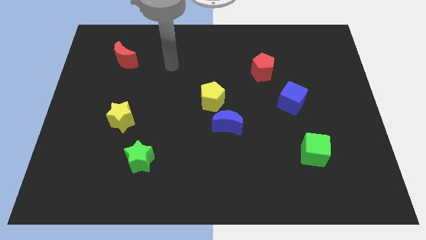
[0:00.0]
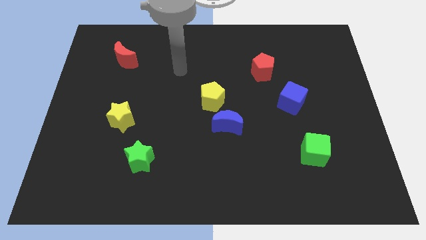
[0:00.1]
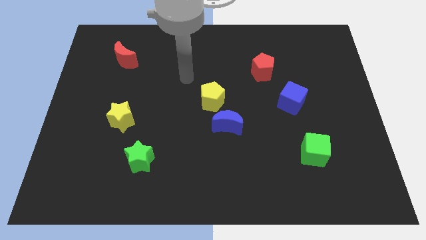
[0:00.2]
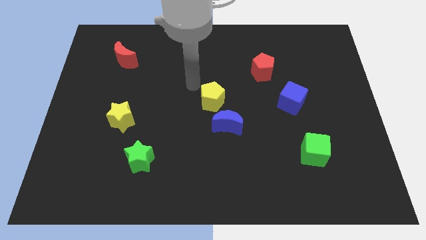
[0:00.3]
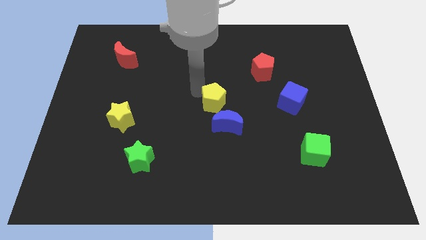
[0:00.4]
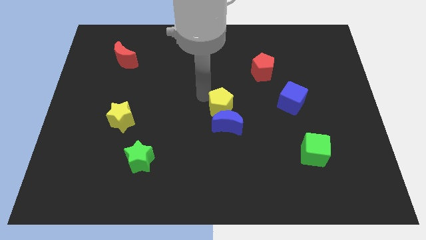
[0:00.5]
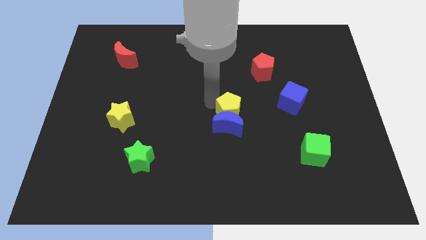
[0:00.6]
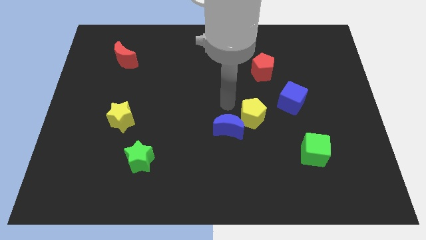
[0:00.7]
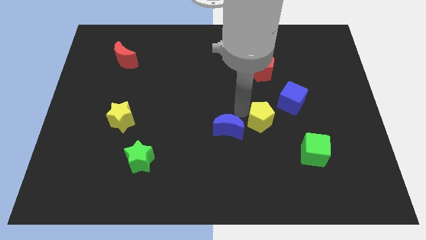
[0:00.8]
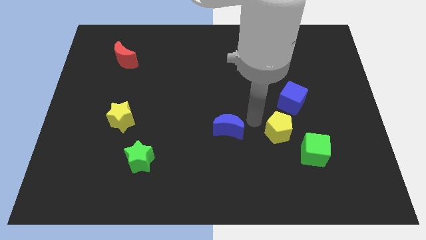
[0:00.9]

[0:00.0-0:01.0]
pull the blue moon apart from the yellow pentagon

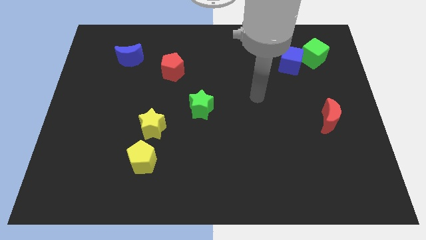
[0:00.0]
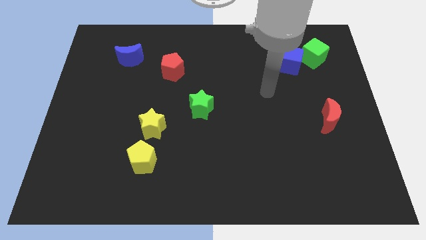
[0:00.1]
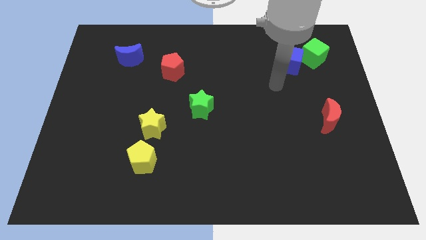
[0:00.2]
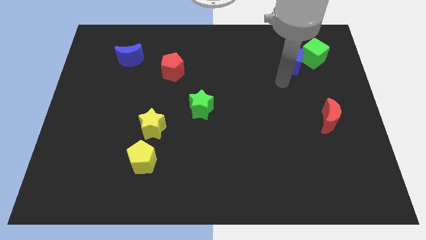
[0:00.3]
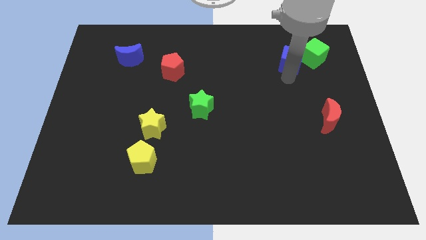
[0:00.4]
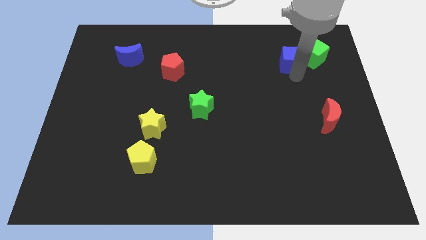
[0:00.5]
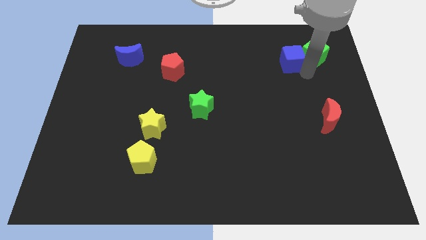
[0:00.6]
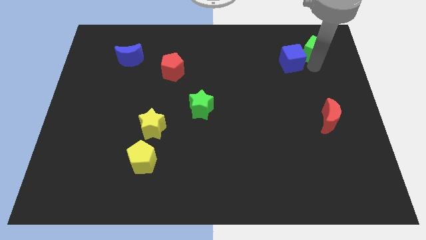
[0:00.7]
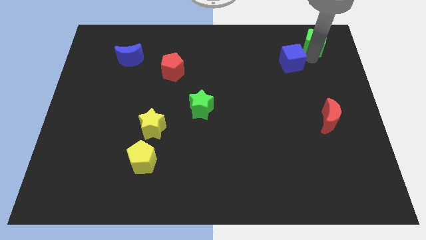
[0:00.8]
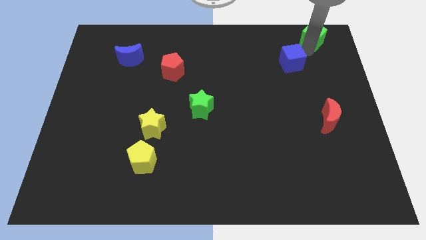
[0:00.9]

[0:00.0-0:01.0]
separate the blue cube from the green cube

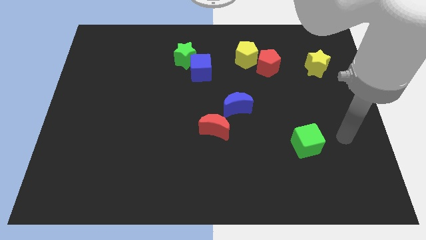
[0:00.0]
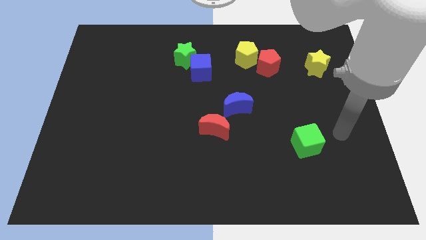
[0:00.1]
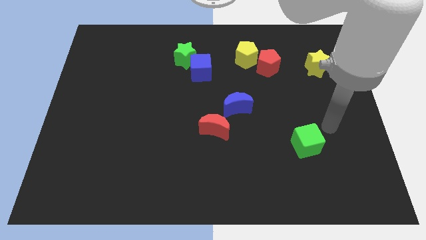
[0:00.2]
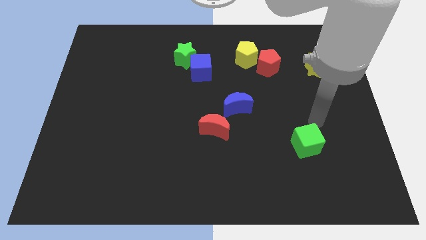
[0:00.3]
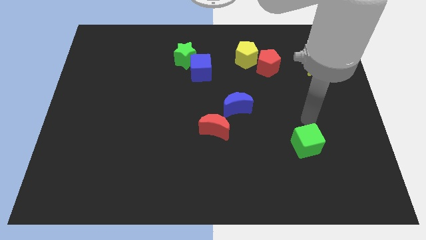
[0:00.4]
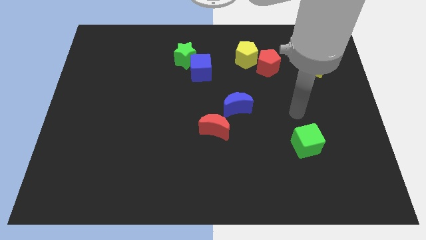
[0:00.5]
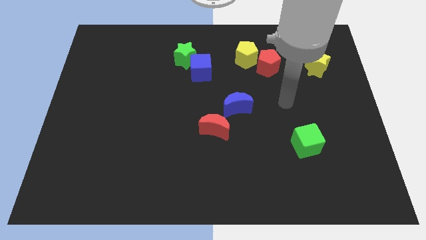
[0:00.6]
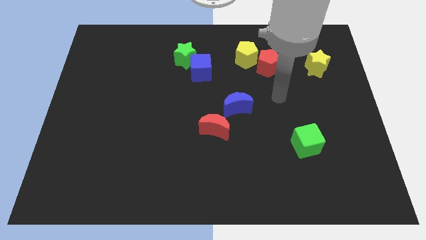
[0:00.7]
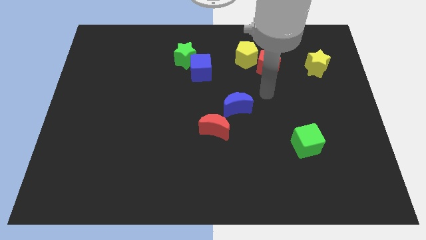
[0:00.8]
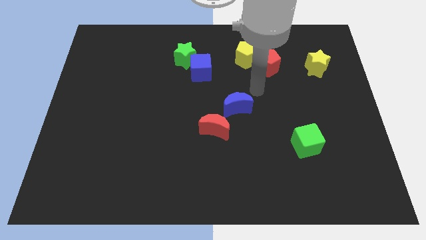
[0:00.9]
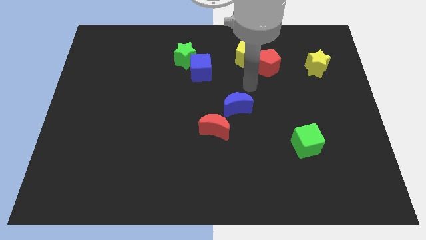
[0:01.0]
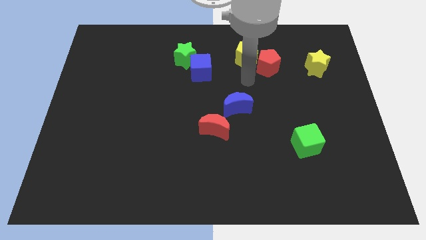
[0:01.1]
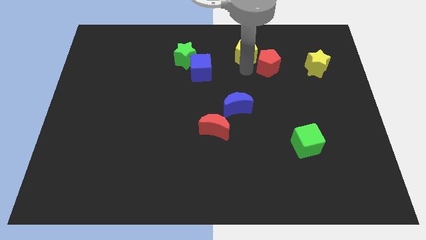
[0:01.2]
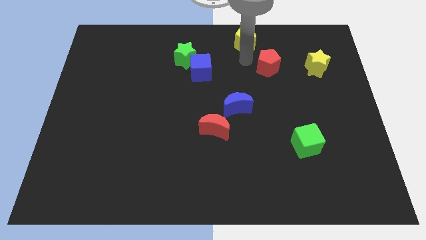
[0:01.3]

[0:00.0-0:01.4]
move the red pentagon away from the yellow pentagon

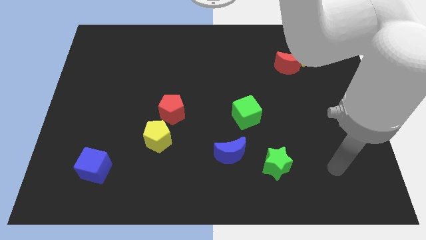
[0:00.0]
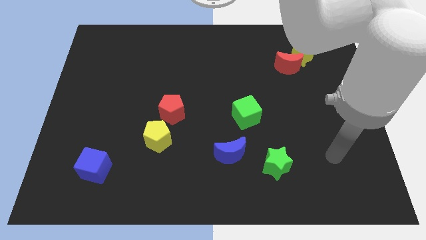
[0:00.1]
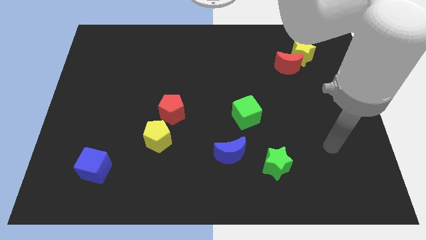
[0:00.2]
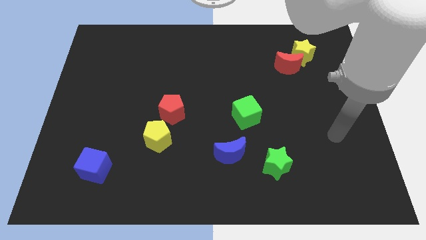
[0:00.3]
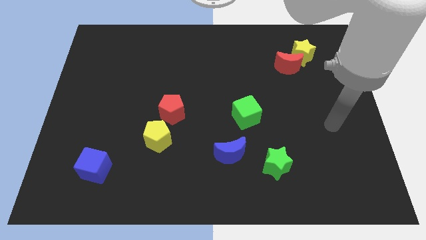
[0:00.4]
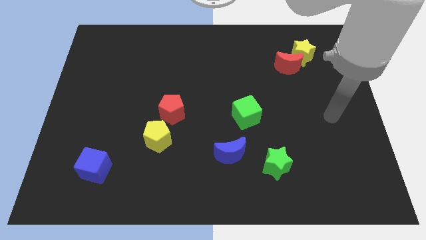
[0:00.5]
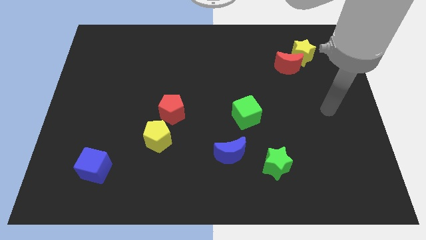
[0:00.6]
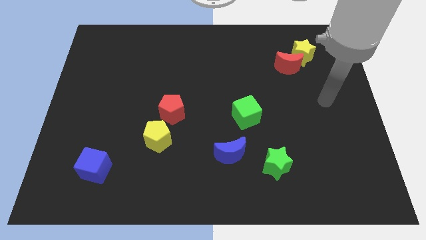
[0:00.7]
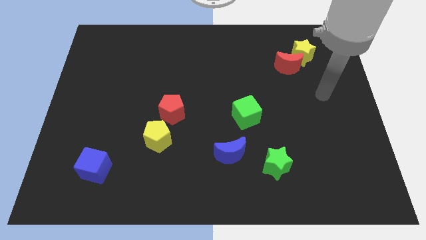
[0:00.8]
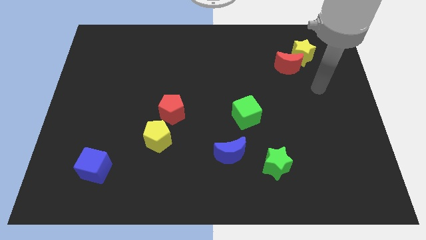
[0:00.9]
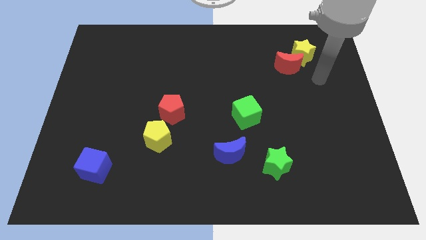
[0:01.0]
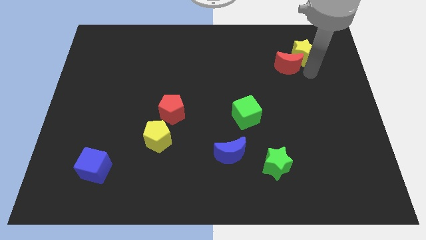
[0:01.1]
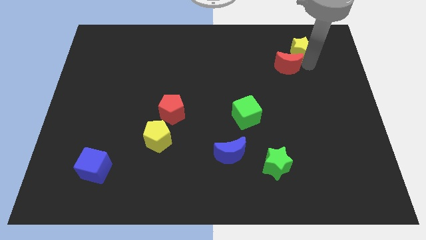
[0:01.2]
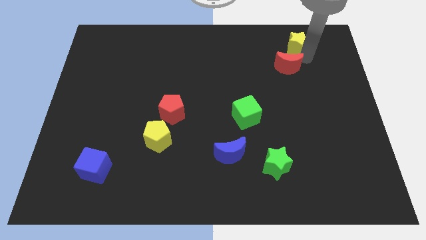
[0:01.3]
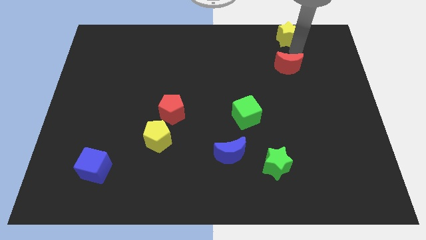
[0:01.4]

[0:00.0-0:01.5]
pull the red moon apart from the yellow star

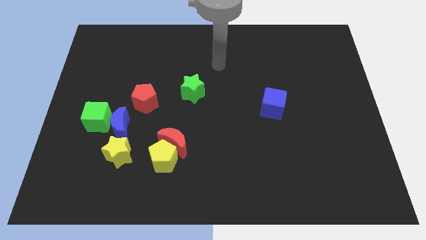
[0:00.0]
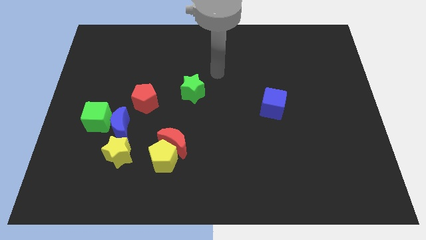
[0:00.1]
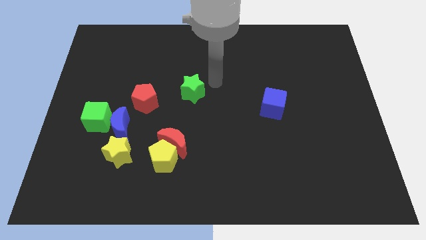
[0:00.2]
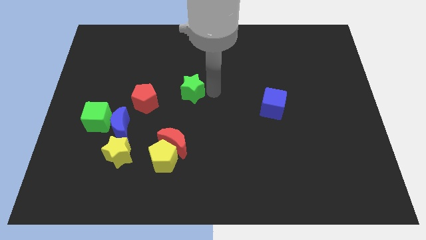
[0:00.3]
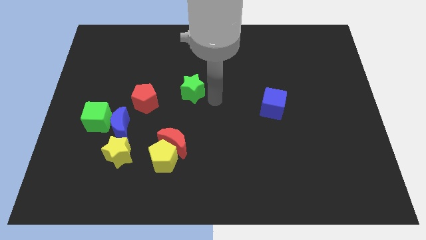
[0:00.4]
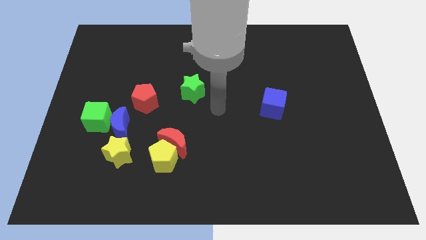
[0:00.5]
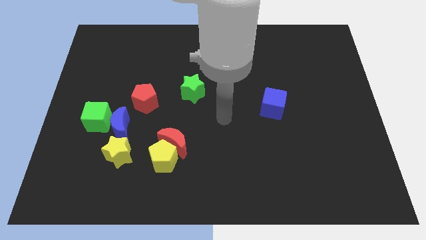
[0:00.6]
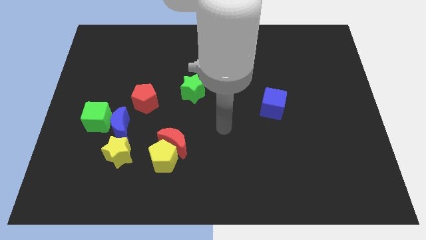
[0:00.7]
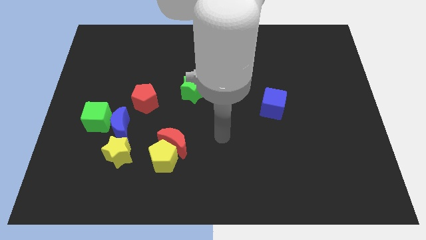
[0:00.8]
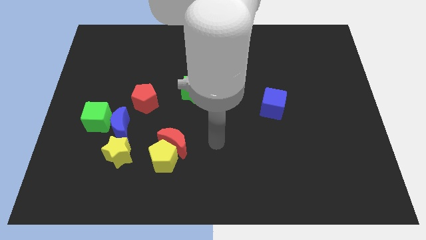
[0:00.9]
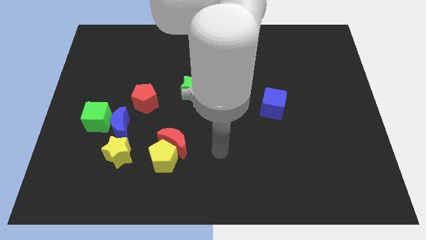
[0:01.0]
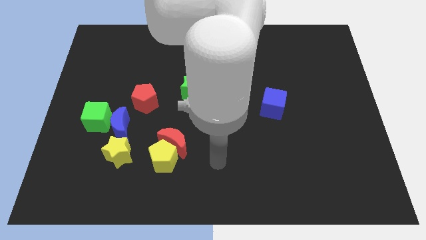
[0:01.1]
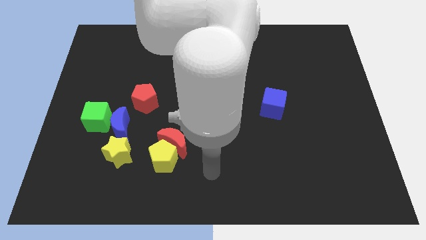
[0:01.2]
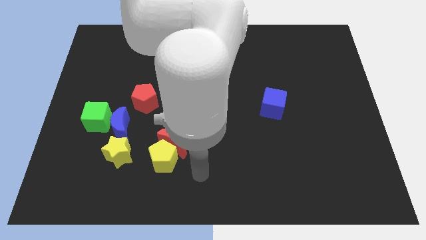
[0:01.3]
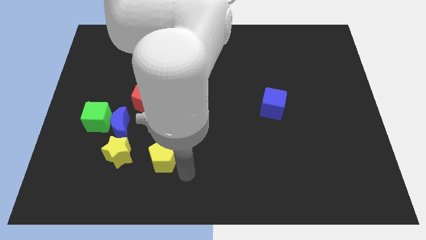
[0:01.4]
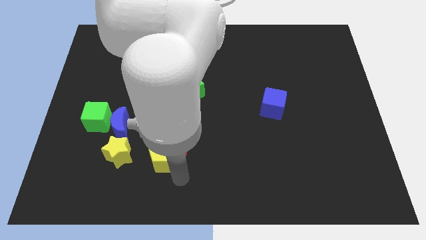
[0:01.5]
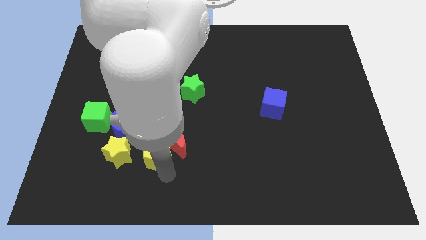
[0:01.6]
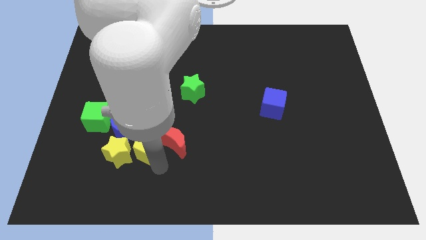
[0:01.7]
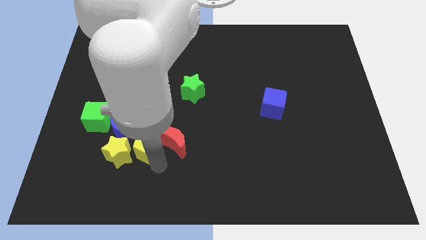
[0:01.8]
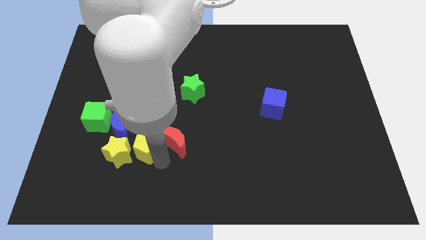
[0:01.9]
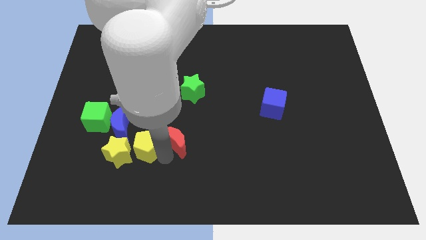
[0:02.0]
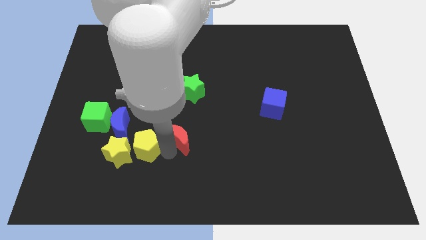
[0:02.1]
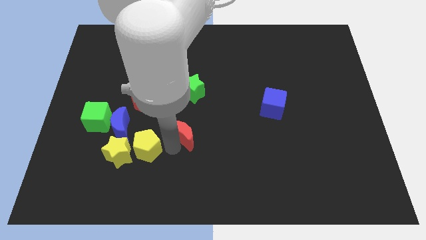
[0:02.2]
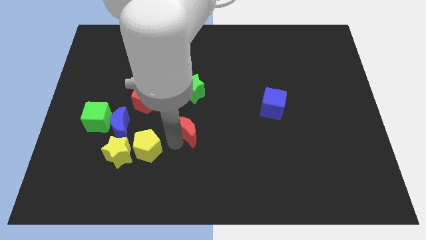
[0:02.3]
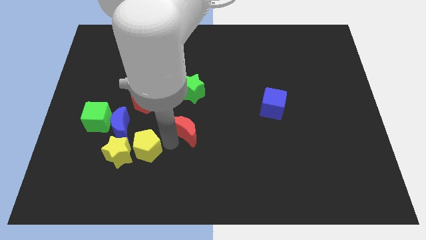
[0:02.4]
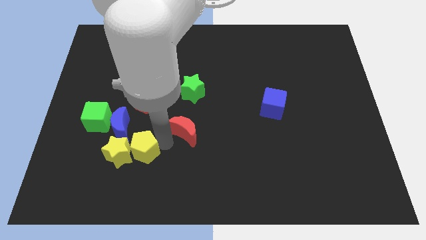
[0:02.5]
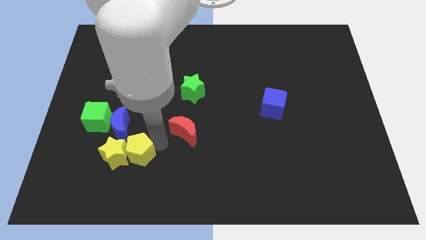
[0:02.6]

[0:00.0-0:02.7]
pull the red moon apart from the yellow pentagon

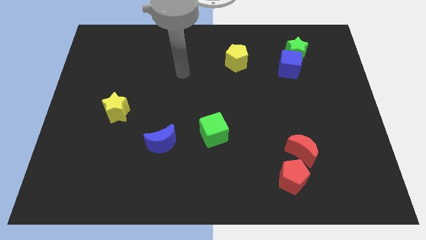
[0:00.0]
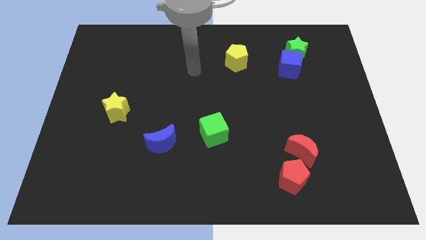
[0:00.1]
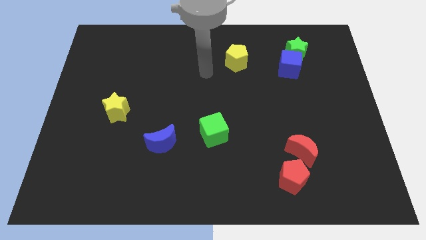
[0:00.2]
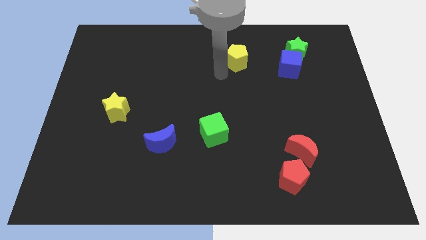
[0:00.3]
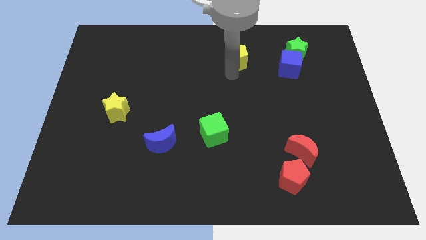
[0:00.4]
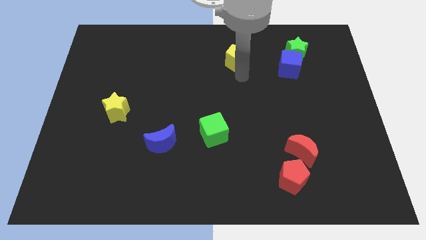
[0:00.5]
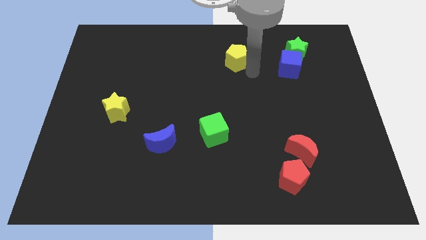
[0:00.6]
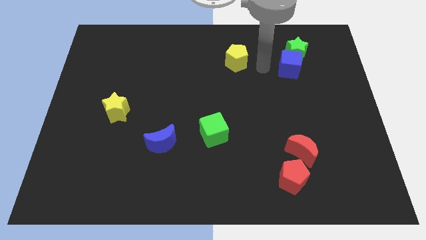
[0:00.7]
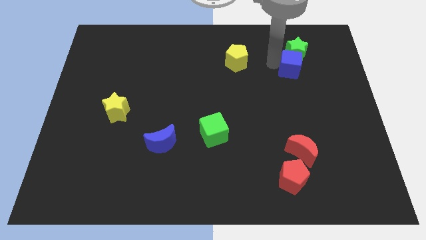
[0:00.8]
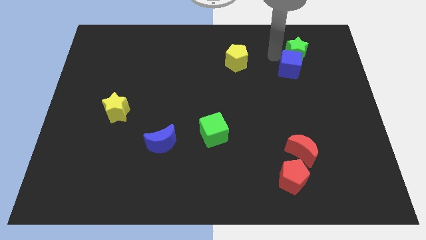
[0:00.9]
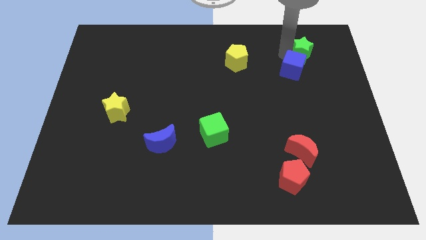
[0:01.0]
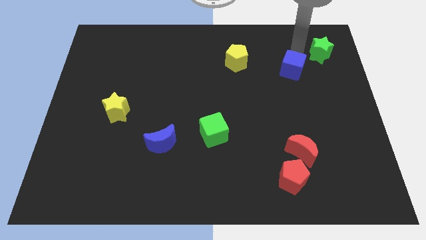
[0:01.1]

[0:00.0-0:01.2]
move the blue cube away from the green star

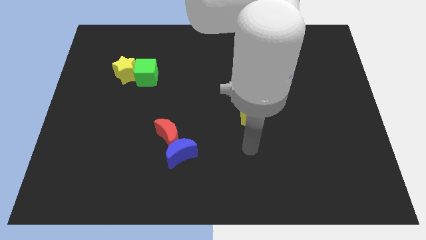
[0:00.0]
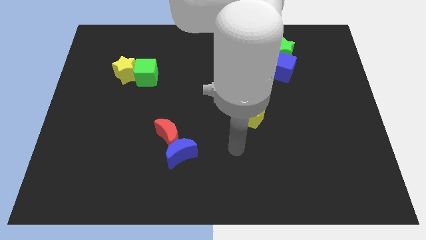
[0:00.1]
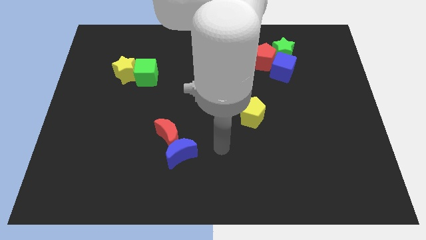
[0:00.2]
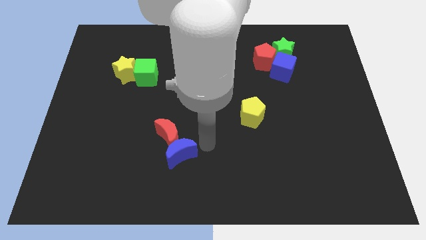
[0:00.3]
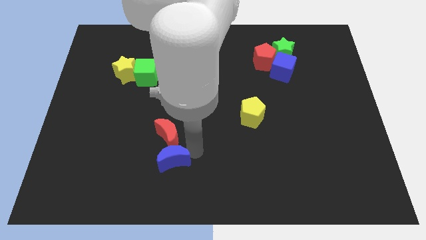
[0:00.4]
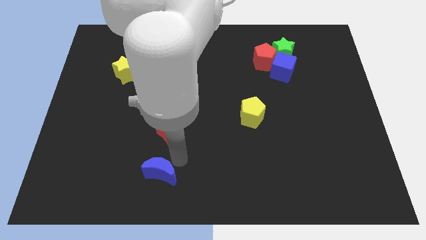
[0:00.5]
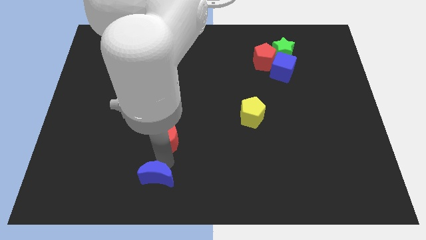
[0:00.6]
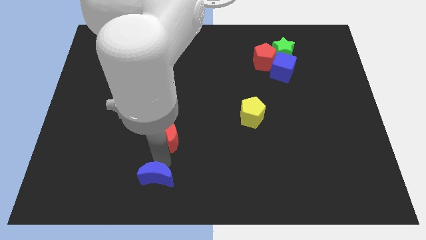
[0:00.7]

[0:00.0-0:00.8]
pull the red moon apart from the blue moon
